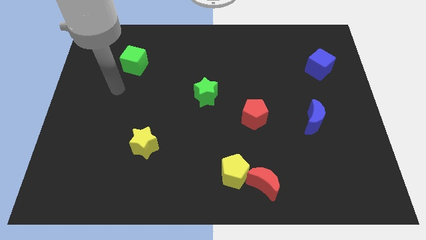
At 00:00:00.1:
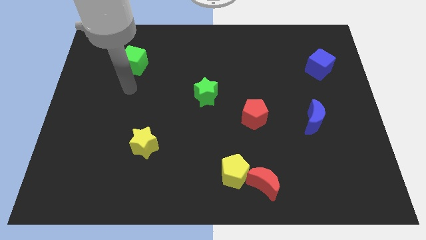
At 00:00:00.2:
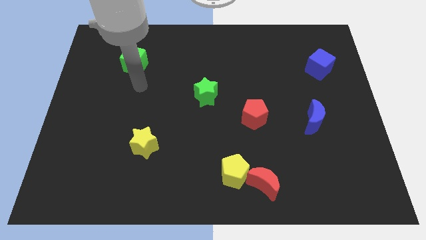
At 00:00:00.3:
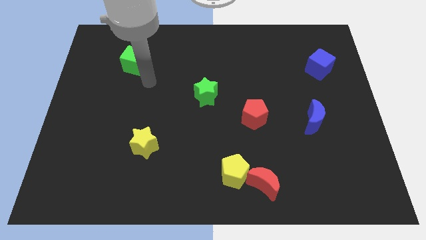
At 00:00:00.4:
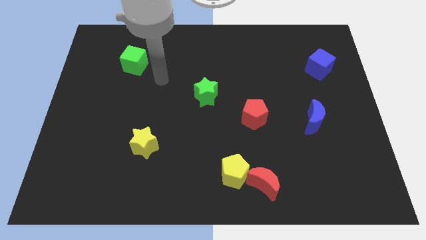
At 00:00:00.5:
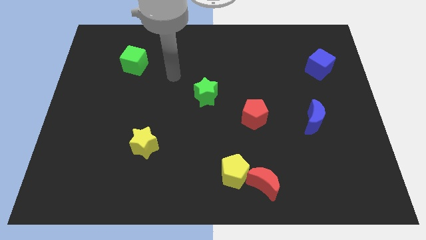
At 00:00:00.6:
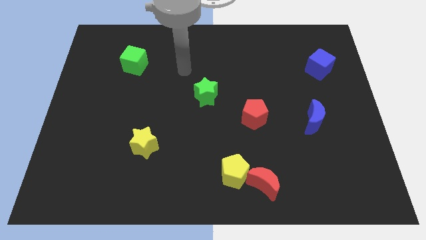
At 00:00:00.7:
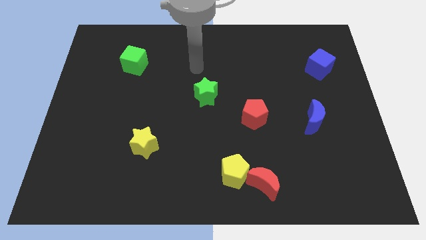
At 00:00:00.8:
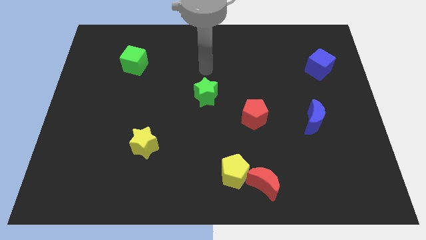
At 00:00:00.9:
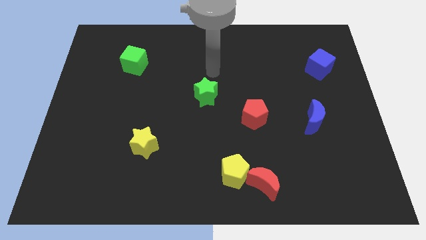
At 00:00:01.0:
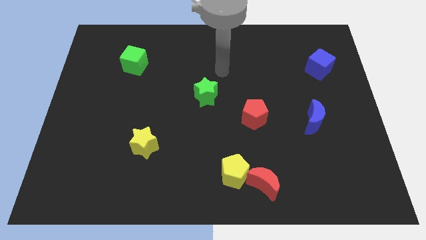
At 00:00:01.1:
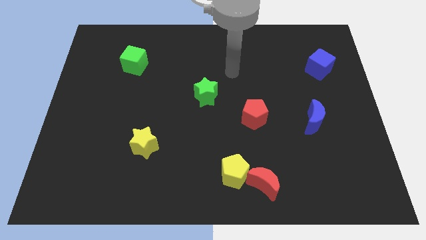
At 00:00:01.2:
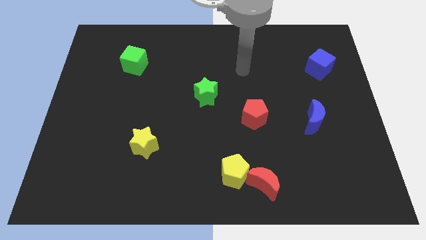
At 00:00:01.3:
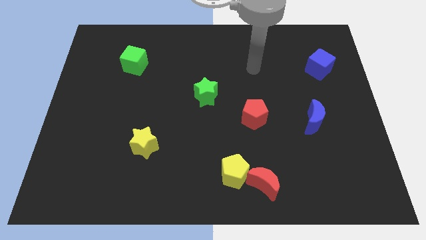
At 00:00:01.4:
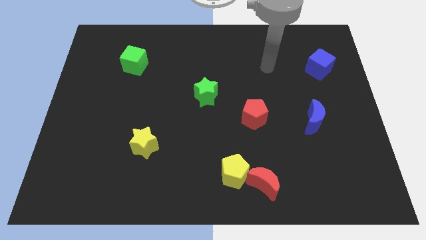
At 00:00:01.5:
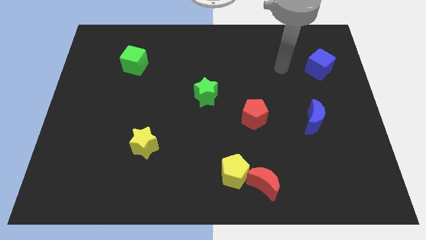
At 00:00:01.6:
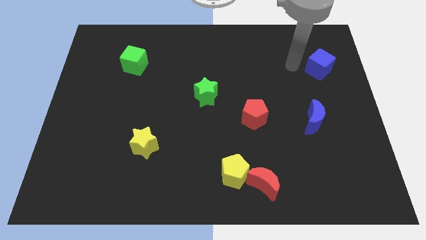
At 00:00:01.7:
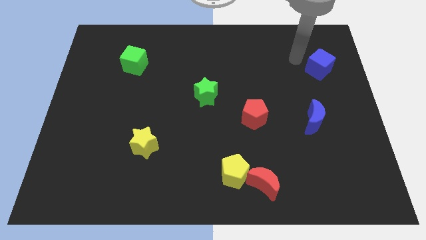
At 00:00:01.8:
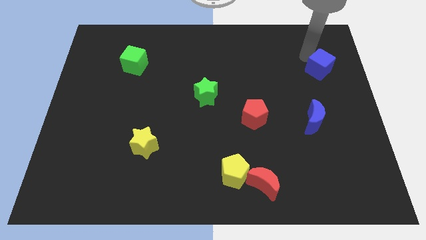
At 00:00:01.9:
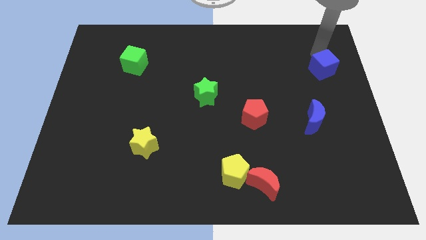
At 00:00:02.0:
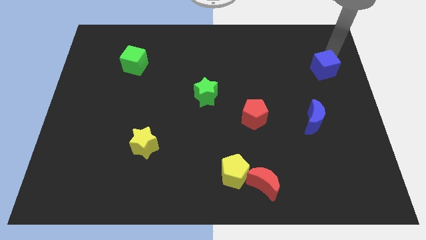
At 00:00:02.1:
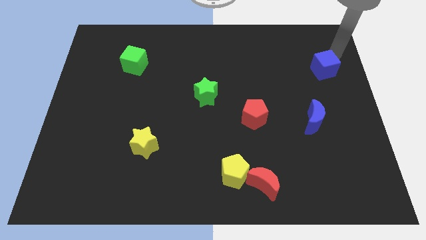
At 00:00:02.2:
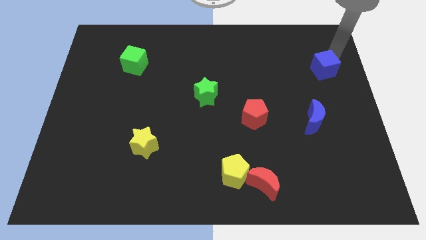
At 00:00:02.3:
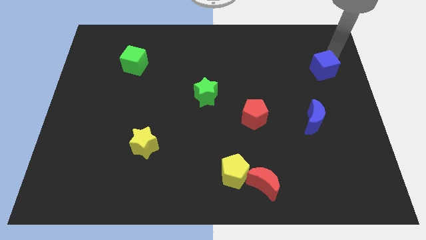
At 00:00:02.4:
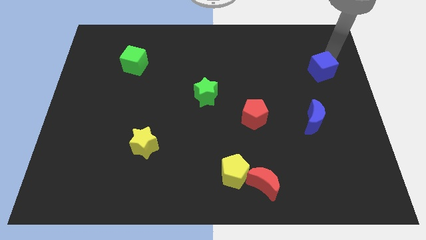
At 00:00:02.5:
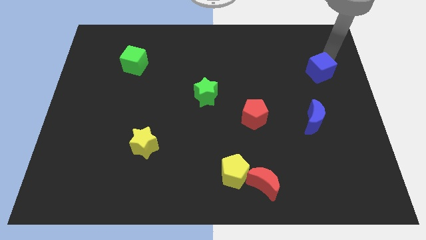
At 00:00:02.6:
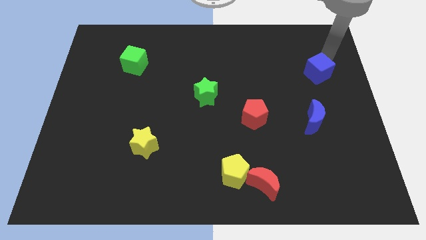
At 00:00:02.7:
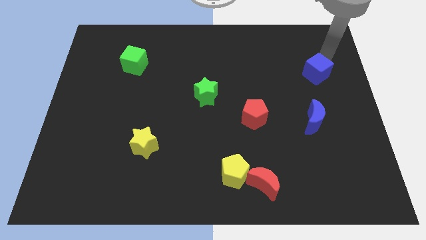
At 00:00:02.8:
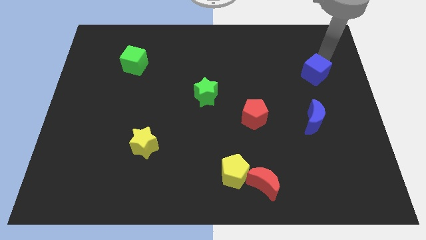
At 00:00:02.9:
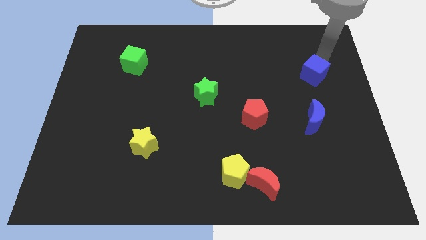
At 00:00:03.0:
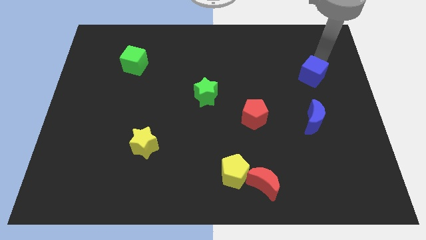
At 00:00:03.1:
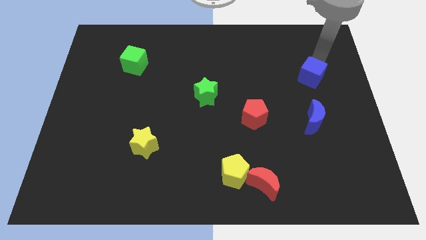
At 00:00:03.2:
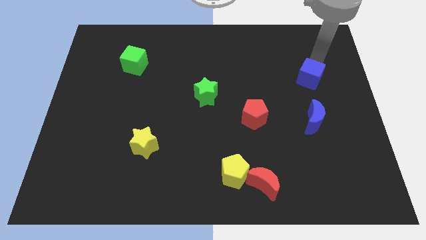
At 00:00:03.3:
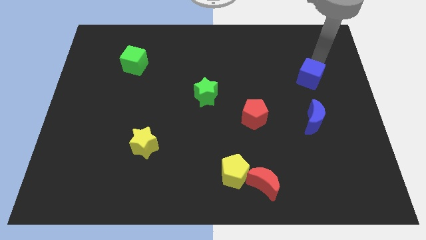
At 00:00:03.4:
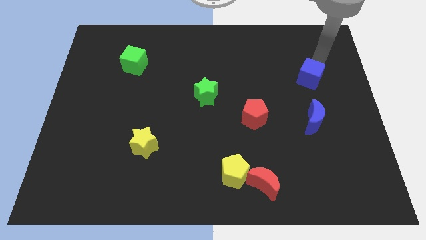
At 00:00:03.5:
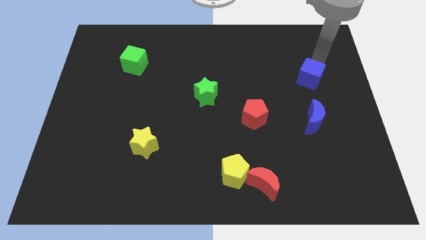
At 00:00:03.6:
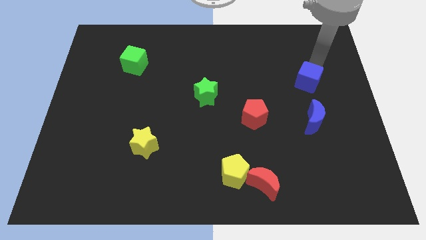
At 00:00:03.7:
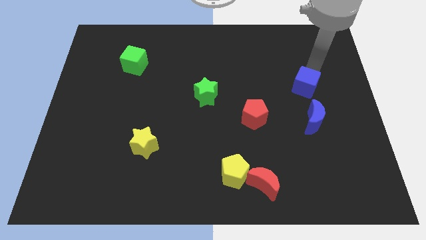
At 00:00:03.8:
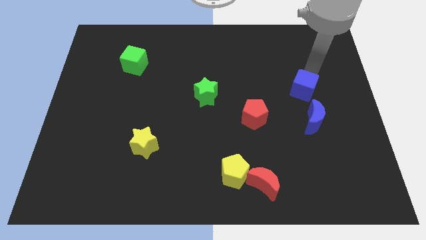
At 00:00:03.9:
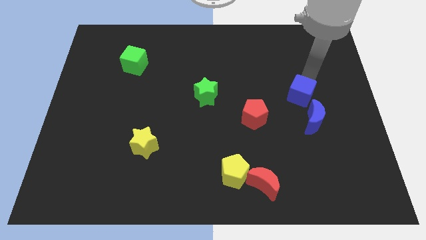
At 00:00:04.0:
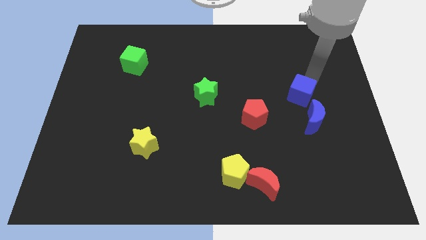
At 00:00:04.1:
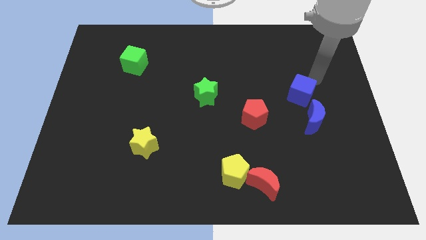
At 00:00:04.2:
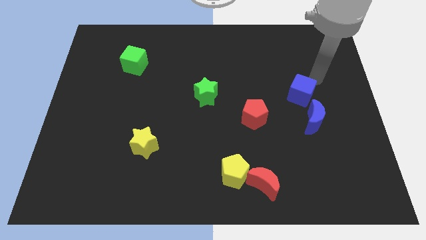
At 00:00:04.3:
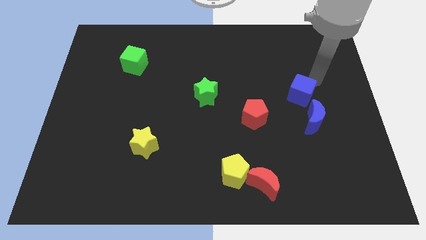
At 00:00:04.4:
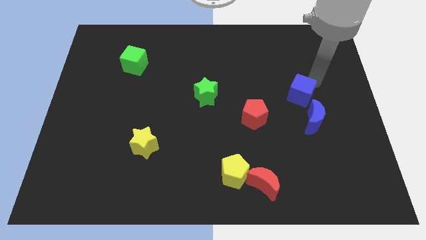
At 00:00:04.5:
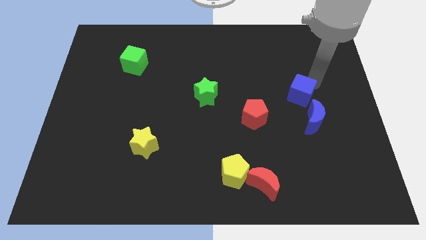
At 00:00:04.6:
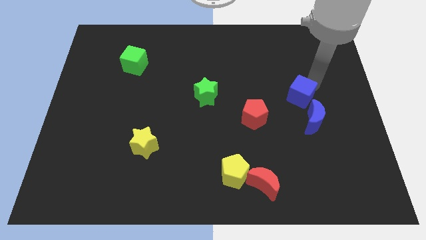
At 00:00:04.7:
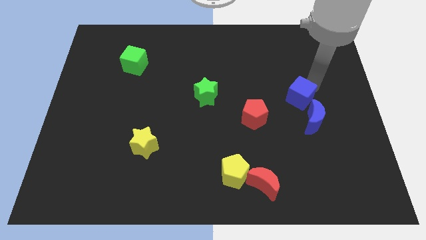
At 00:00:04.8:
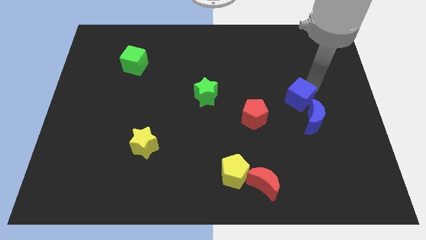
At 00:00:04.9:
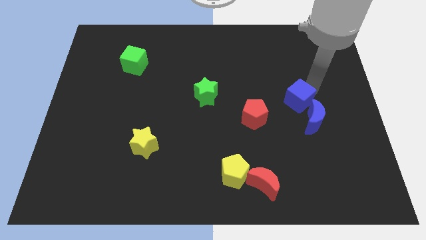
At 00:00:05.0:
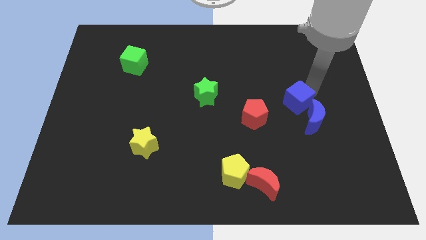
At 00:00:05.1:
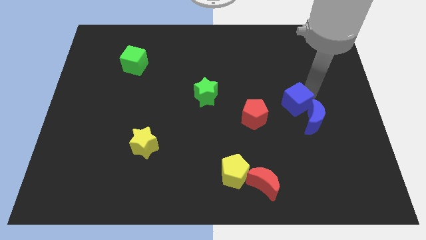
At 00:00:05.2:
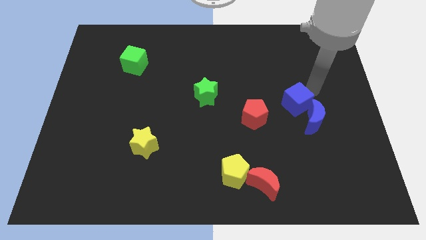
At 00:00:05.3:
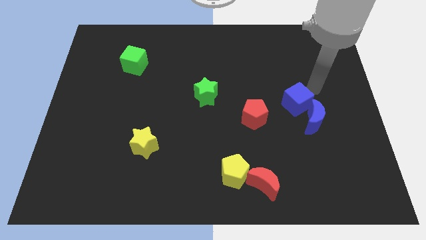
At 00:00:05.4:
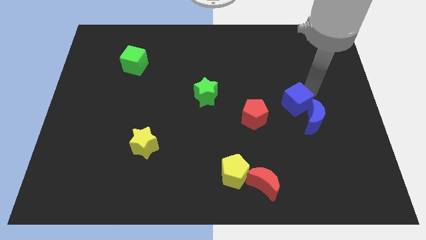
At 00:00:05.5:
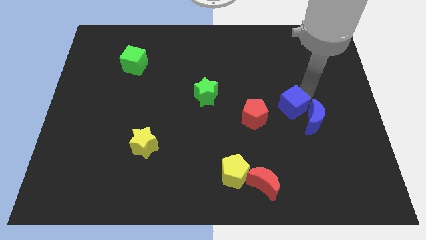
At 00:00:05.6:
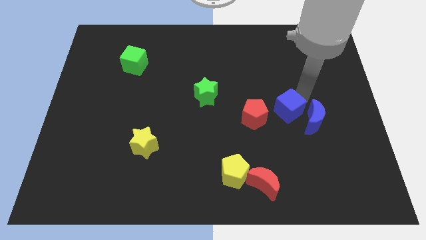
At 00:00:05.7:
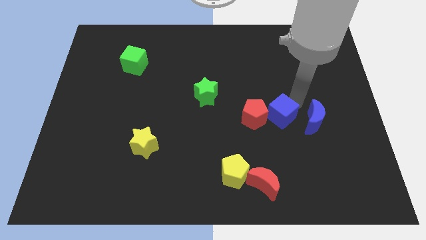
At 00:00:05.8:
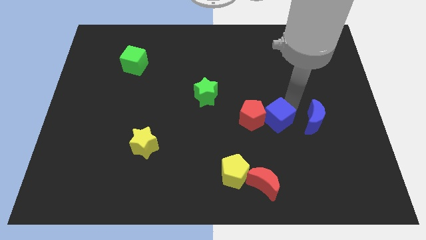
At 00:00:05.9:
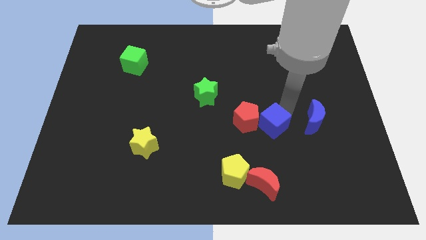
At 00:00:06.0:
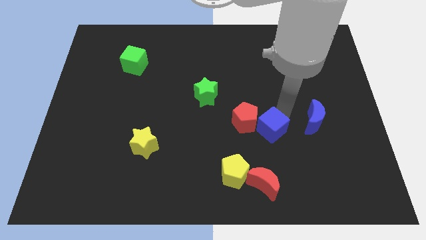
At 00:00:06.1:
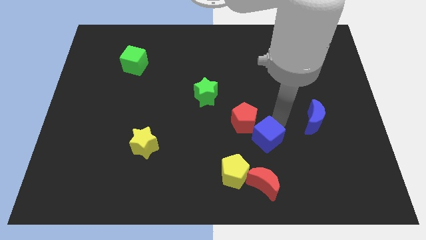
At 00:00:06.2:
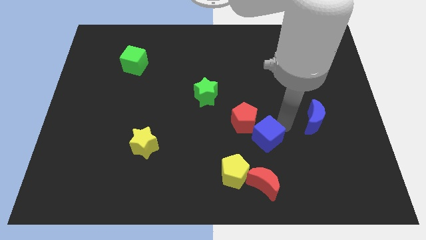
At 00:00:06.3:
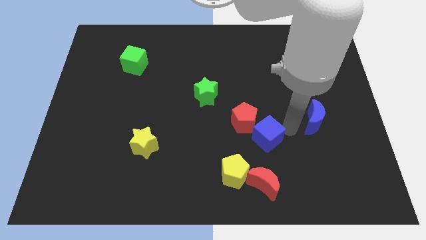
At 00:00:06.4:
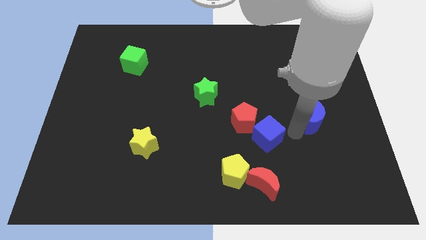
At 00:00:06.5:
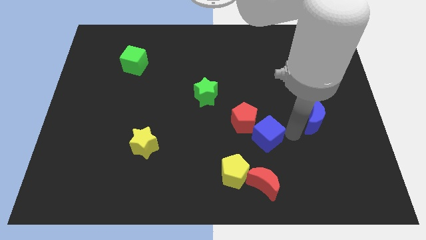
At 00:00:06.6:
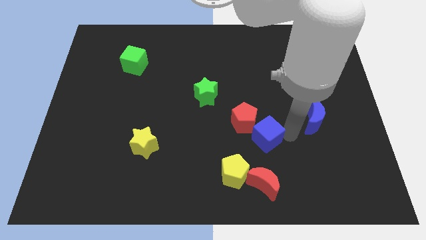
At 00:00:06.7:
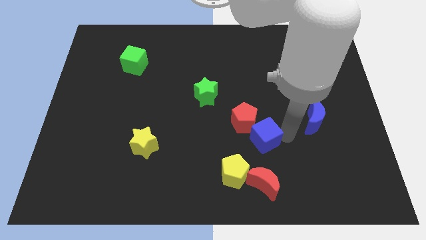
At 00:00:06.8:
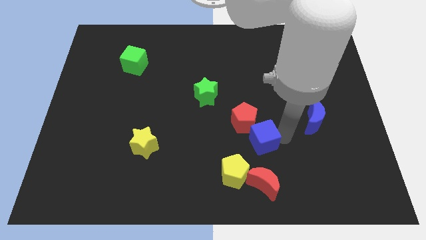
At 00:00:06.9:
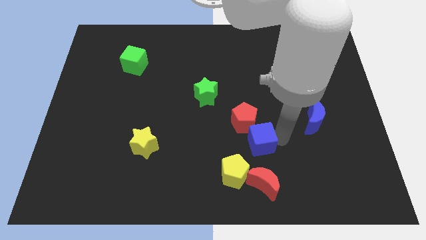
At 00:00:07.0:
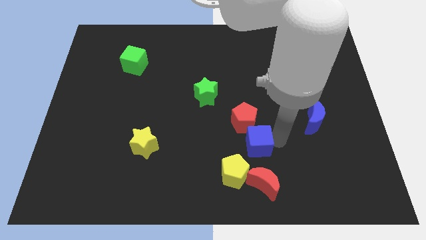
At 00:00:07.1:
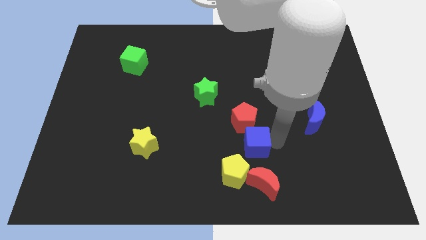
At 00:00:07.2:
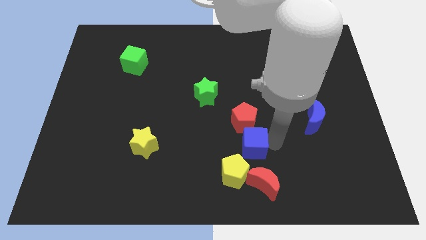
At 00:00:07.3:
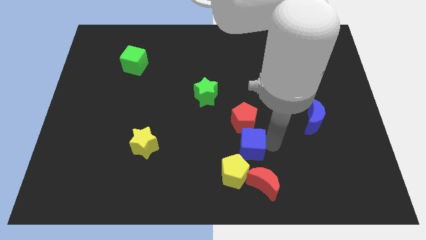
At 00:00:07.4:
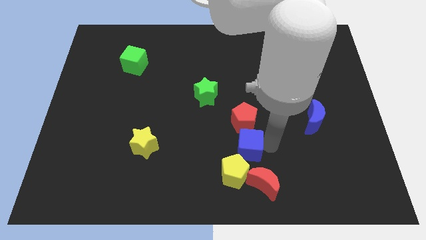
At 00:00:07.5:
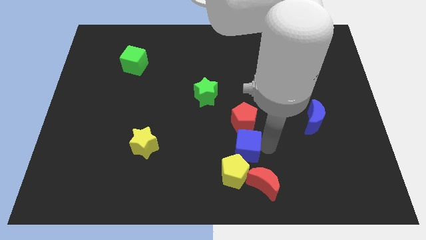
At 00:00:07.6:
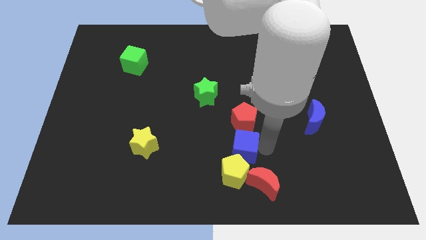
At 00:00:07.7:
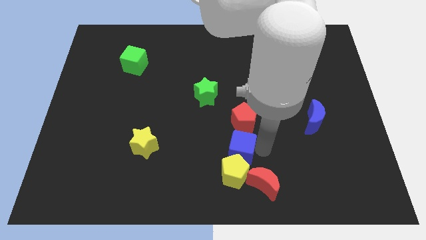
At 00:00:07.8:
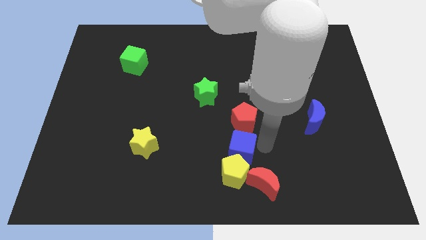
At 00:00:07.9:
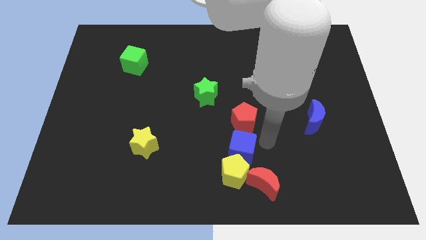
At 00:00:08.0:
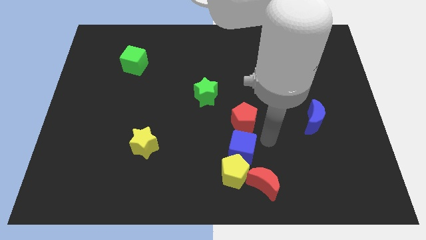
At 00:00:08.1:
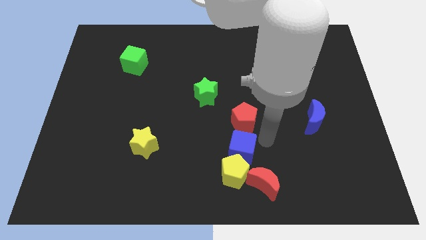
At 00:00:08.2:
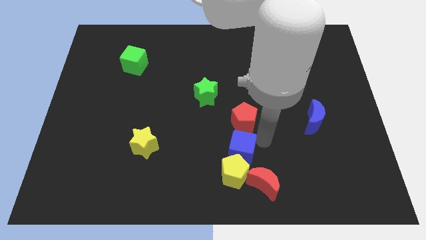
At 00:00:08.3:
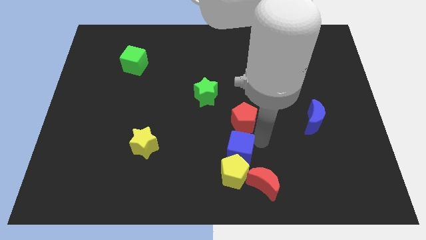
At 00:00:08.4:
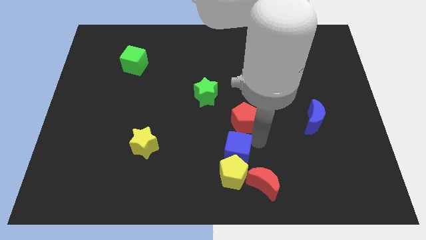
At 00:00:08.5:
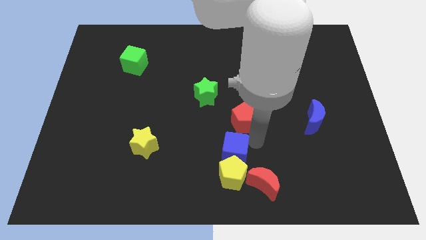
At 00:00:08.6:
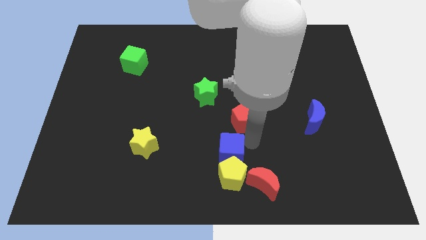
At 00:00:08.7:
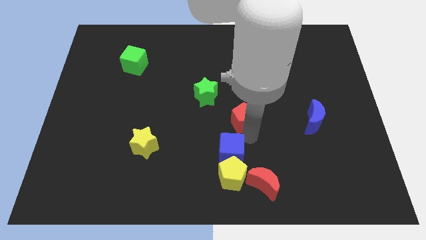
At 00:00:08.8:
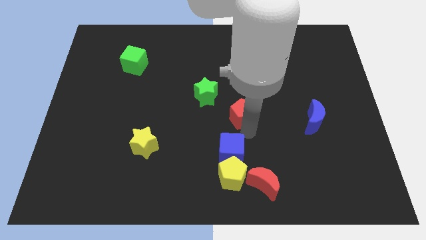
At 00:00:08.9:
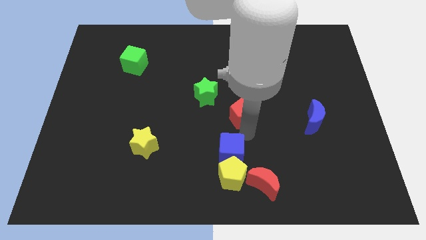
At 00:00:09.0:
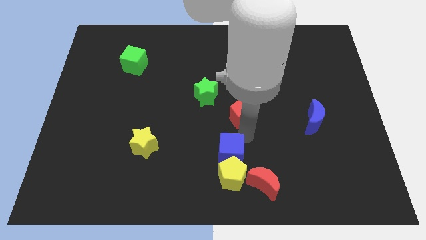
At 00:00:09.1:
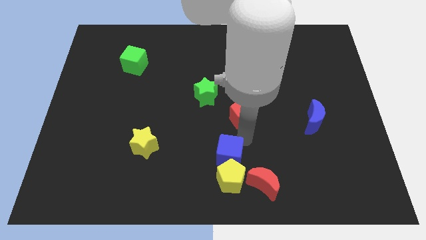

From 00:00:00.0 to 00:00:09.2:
slide the blue cube to the bottom side
